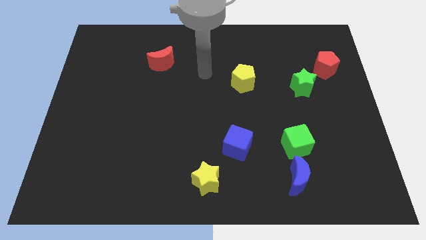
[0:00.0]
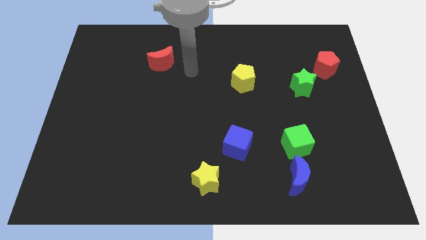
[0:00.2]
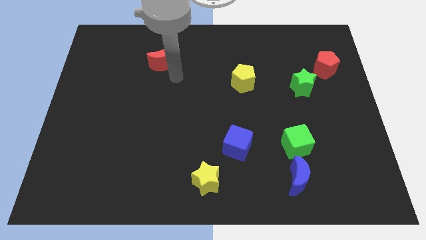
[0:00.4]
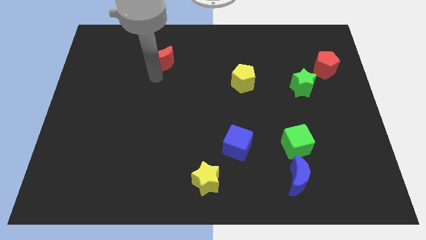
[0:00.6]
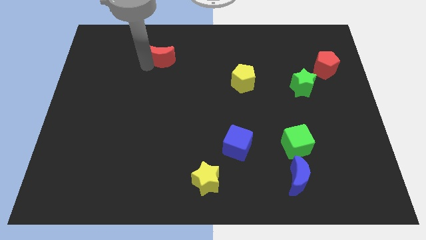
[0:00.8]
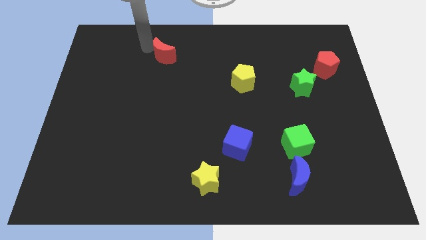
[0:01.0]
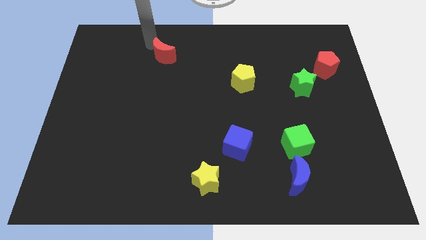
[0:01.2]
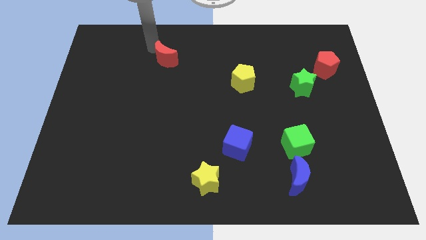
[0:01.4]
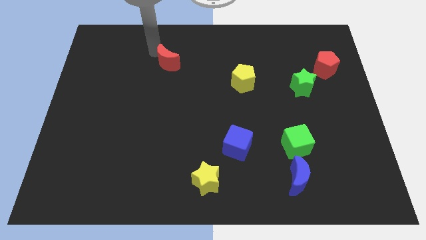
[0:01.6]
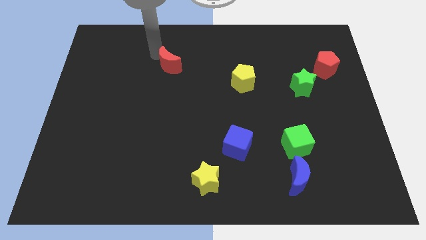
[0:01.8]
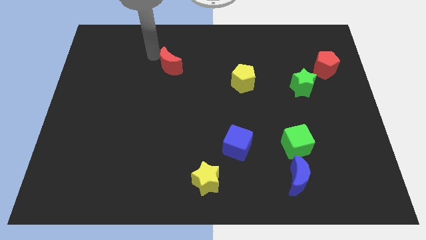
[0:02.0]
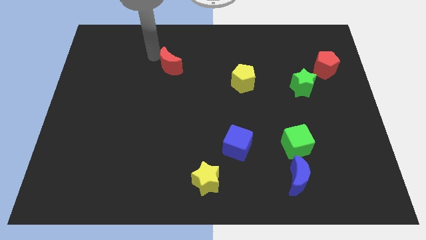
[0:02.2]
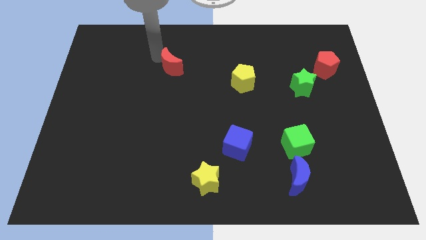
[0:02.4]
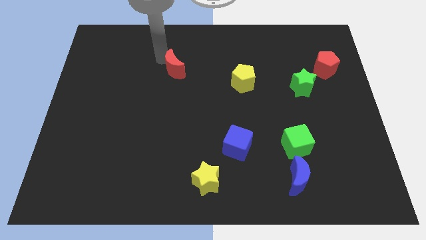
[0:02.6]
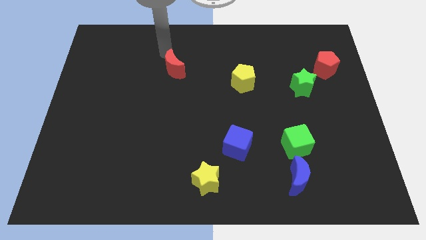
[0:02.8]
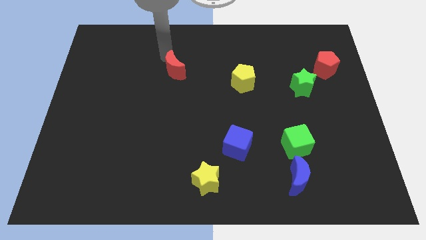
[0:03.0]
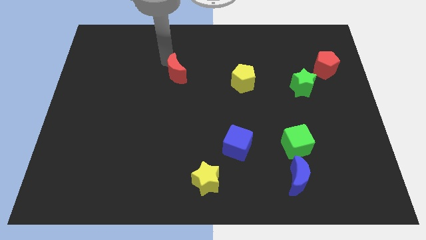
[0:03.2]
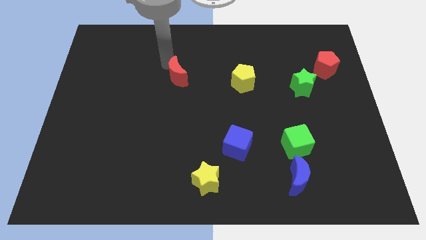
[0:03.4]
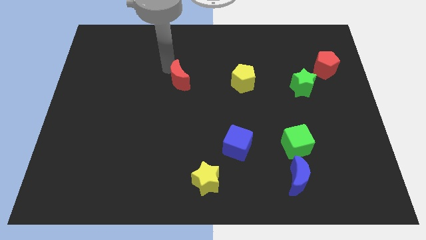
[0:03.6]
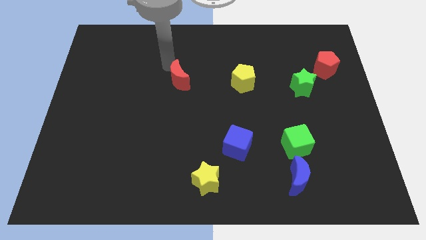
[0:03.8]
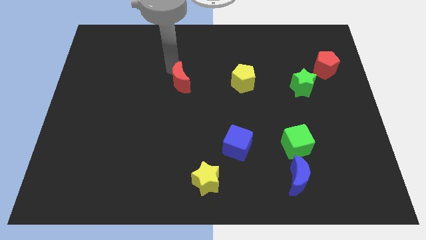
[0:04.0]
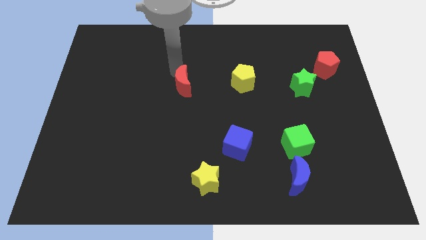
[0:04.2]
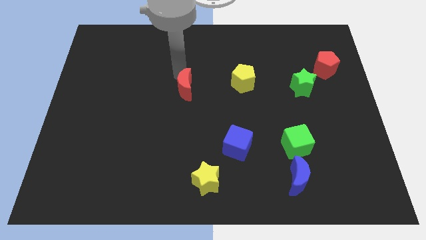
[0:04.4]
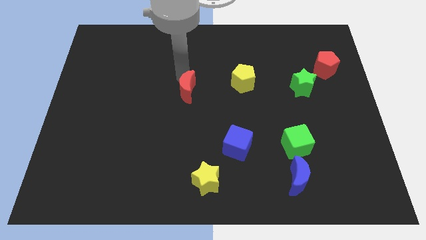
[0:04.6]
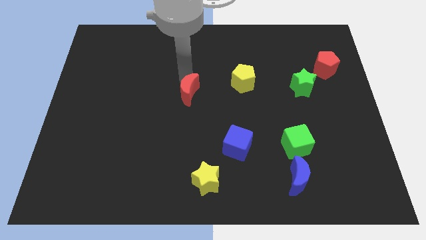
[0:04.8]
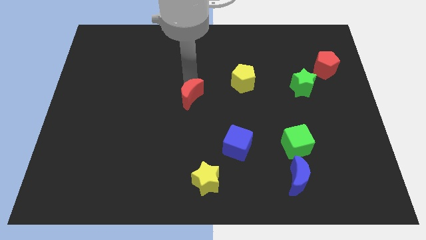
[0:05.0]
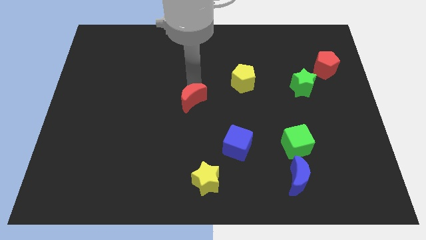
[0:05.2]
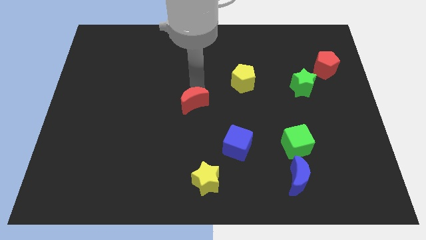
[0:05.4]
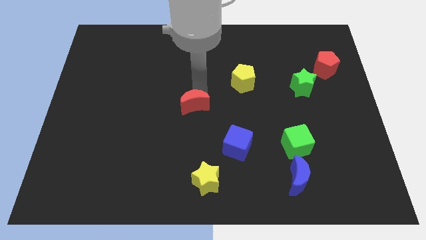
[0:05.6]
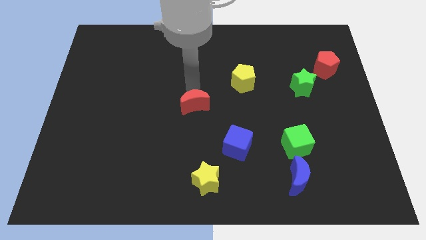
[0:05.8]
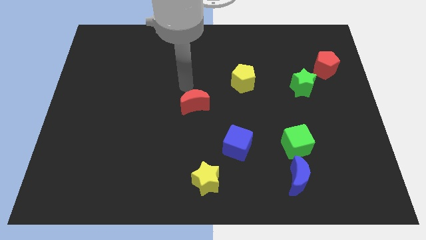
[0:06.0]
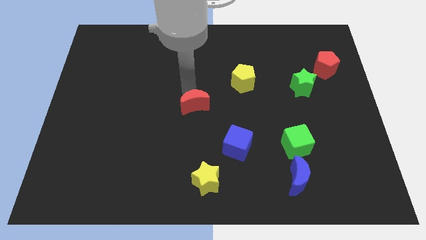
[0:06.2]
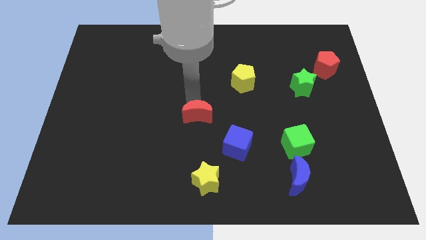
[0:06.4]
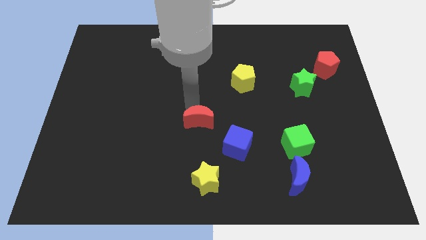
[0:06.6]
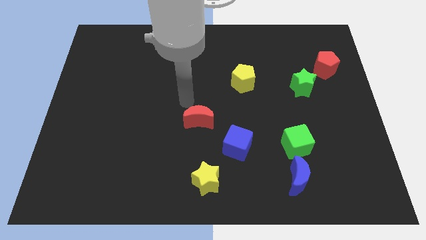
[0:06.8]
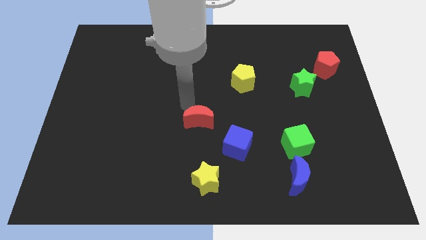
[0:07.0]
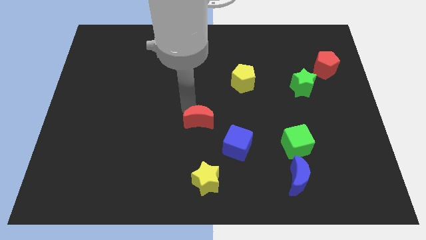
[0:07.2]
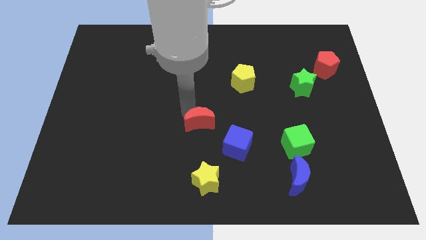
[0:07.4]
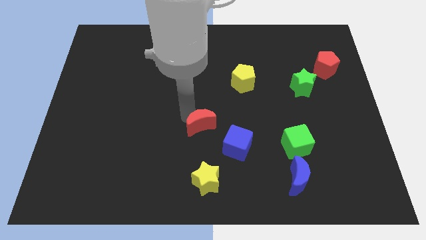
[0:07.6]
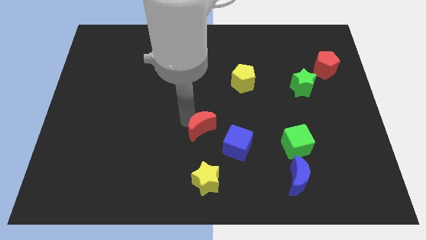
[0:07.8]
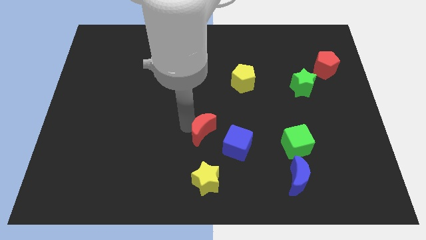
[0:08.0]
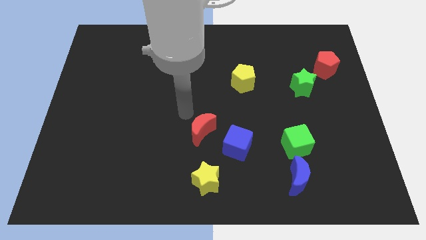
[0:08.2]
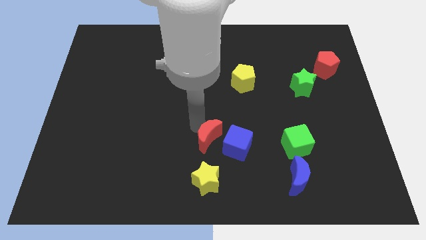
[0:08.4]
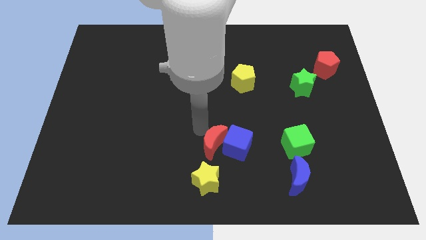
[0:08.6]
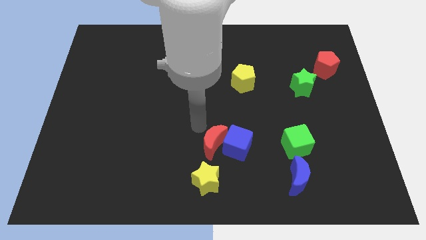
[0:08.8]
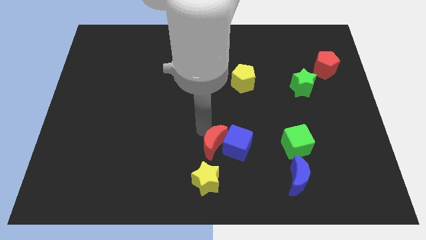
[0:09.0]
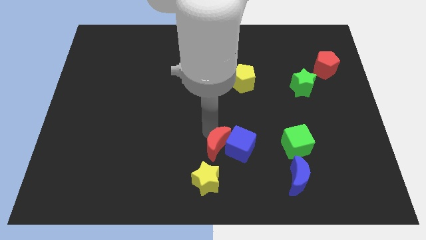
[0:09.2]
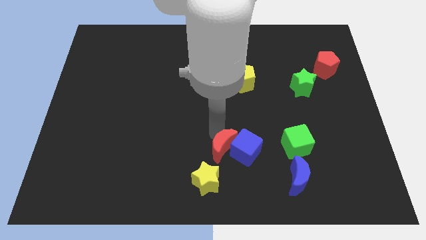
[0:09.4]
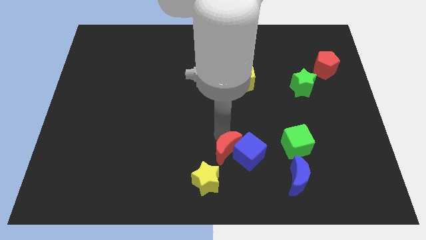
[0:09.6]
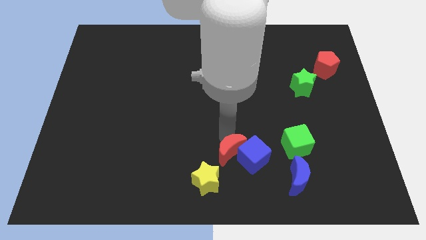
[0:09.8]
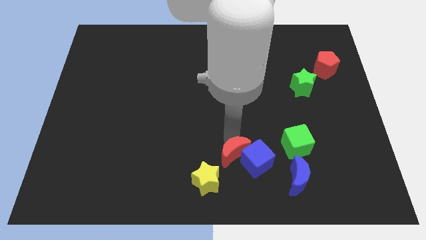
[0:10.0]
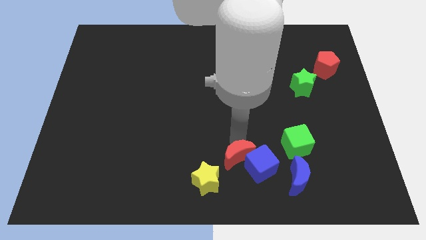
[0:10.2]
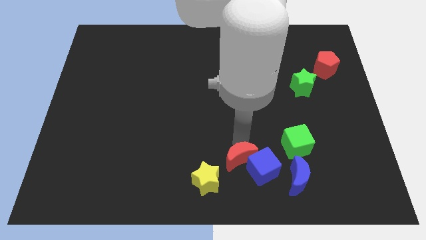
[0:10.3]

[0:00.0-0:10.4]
move the red moon to the left side of the blue moon

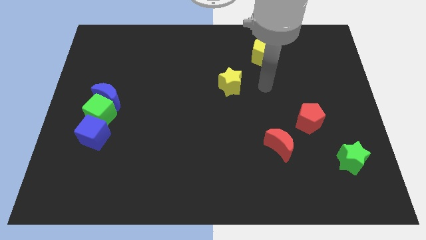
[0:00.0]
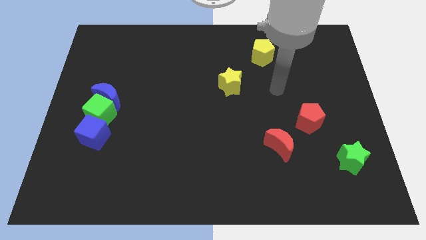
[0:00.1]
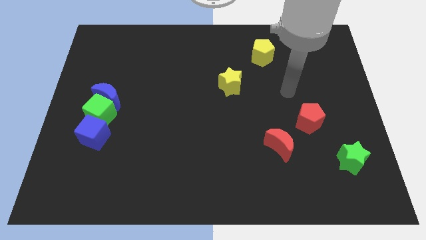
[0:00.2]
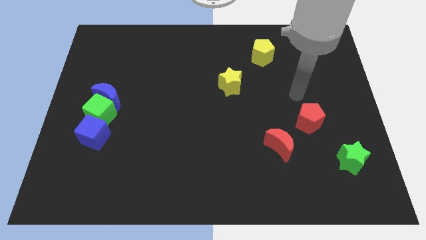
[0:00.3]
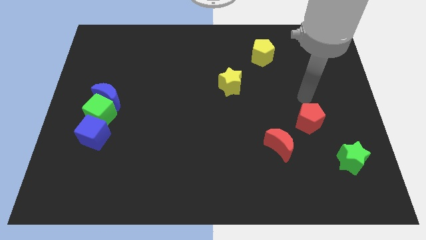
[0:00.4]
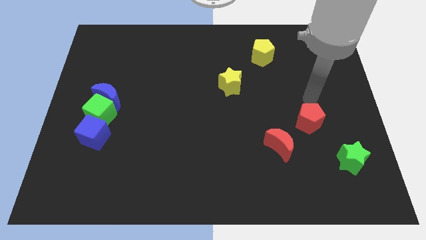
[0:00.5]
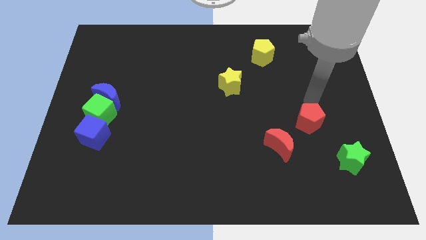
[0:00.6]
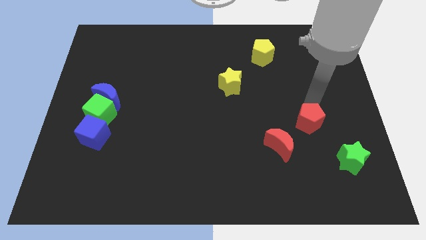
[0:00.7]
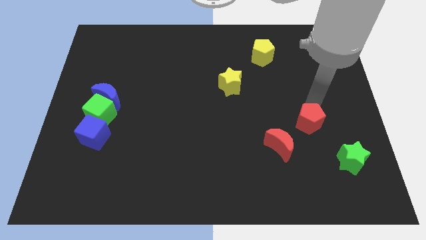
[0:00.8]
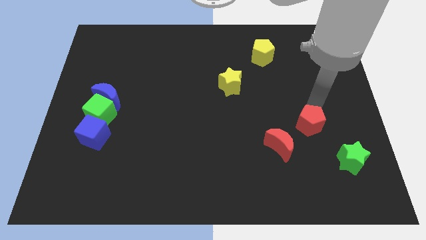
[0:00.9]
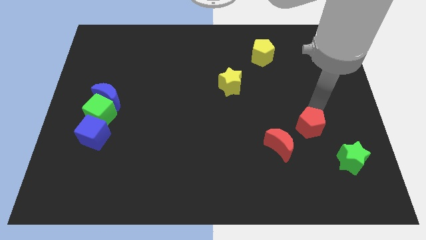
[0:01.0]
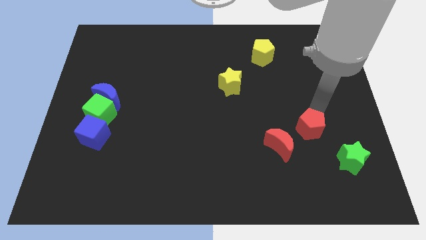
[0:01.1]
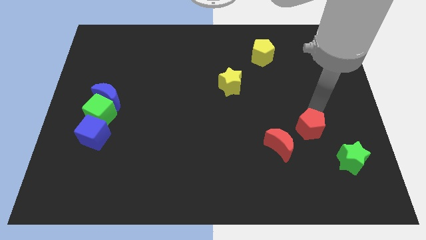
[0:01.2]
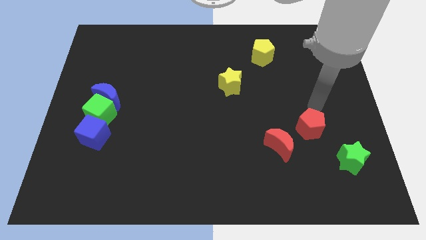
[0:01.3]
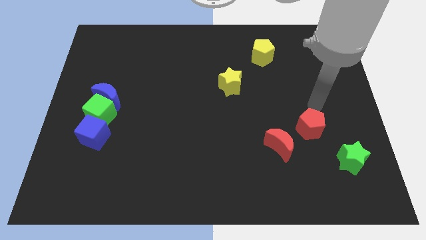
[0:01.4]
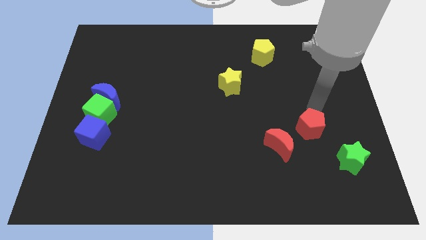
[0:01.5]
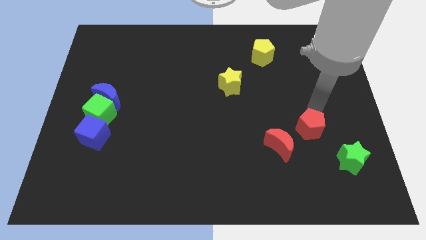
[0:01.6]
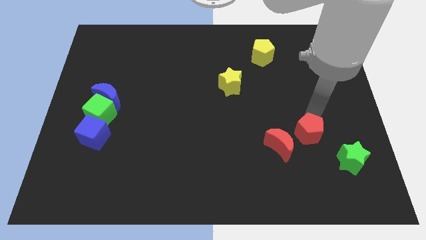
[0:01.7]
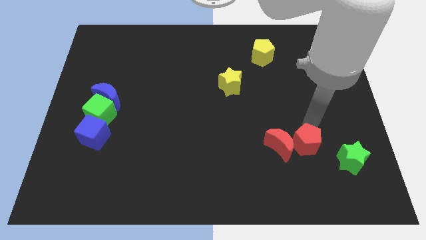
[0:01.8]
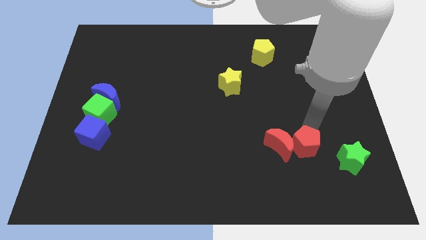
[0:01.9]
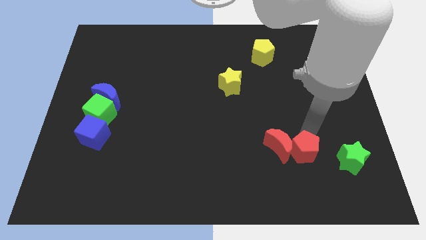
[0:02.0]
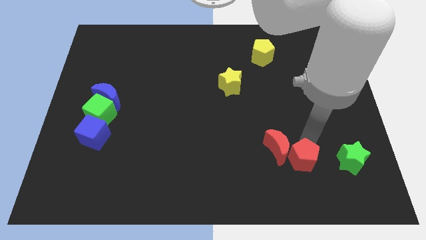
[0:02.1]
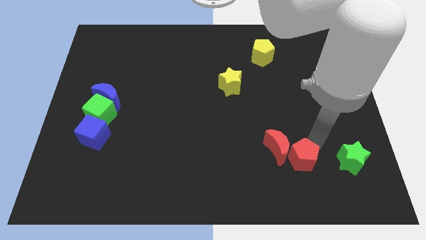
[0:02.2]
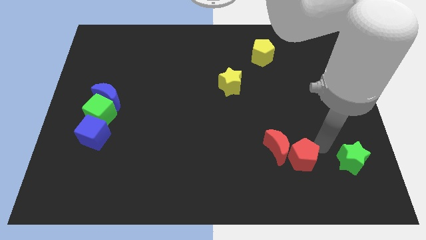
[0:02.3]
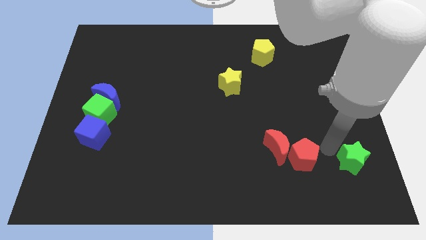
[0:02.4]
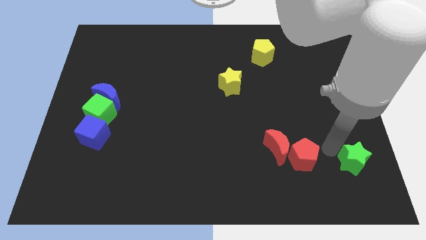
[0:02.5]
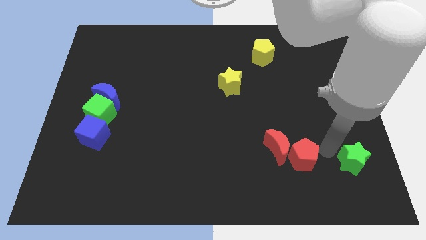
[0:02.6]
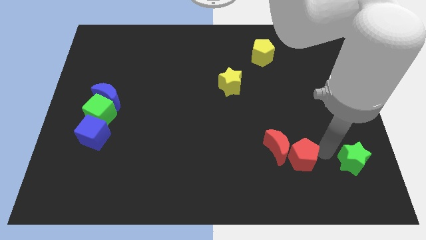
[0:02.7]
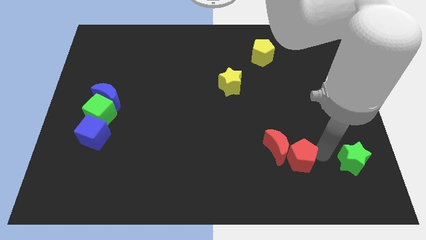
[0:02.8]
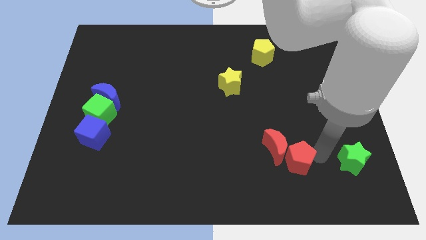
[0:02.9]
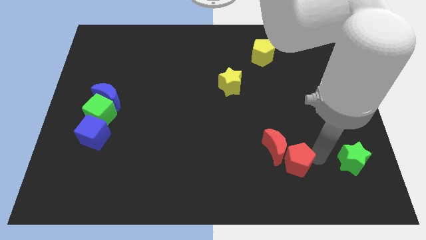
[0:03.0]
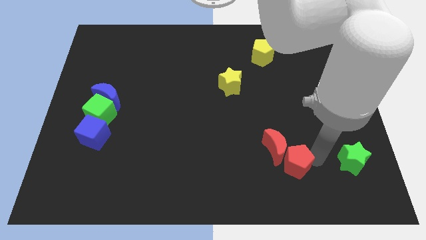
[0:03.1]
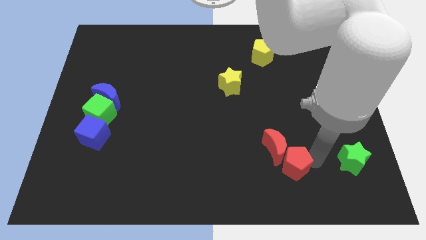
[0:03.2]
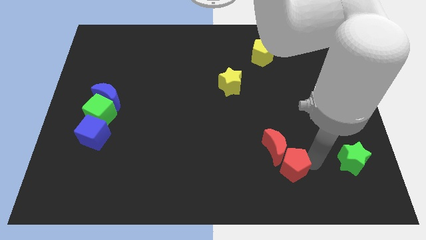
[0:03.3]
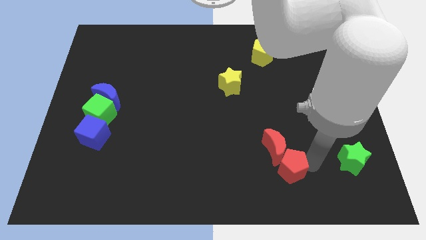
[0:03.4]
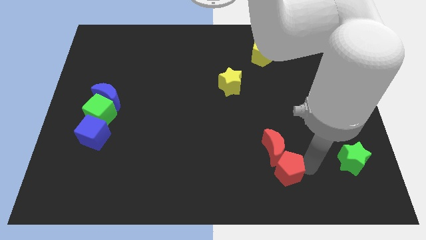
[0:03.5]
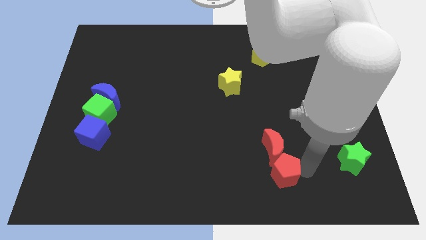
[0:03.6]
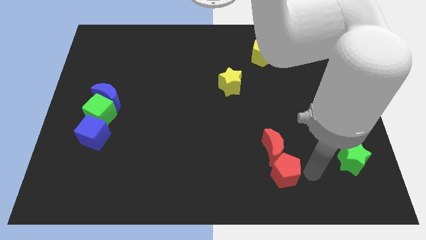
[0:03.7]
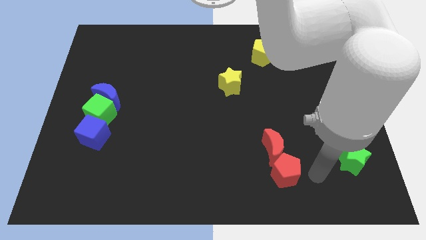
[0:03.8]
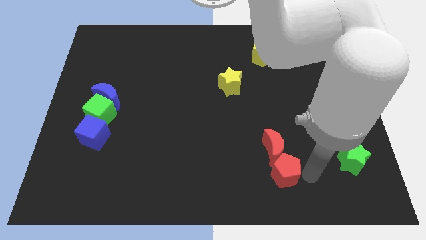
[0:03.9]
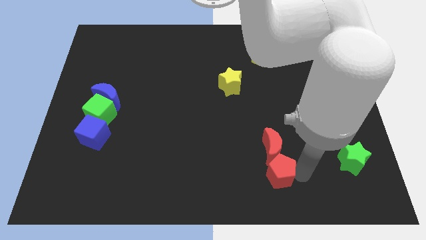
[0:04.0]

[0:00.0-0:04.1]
push the red pentagon to the bottom left side of the red moon
